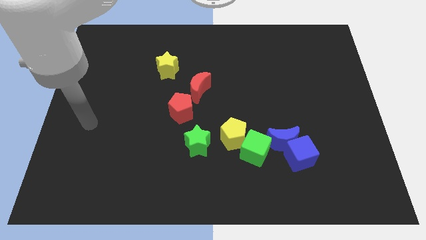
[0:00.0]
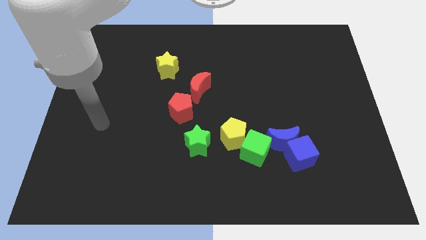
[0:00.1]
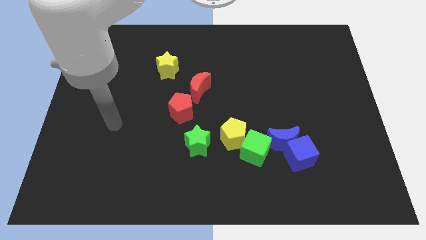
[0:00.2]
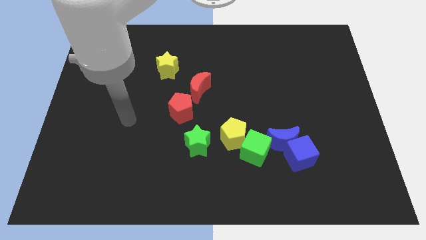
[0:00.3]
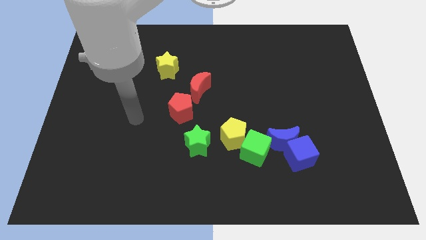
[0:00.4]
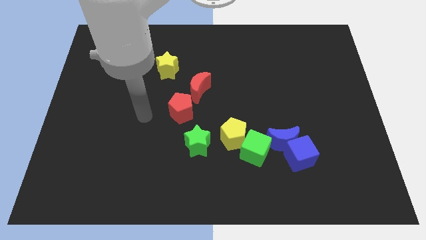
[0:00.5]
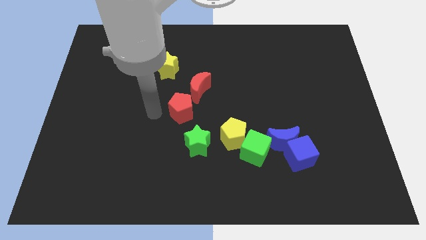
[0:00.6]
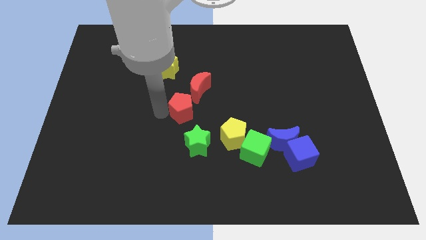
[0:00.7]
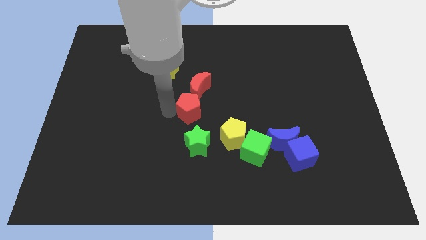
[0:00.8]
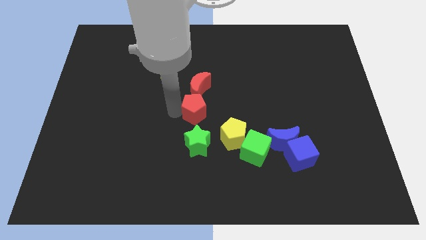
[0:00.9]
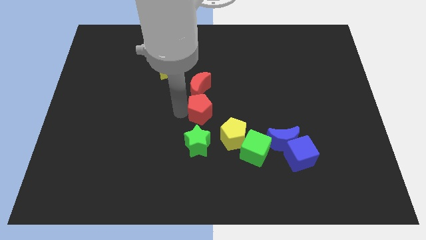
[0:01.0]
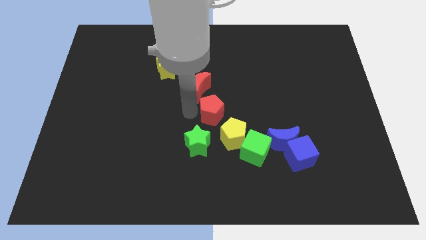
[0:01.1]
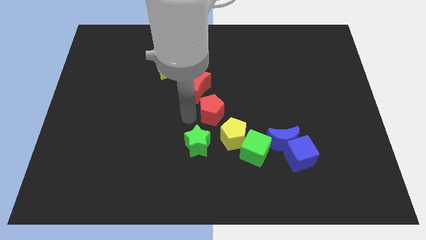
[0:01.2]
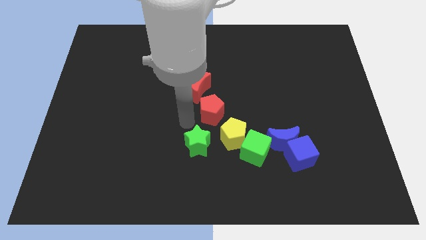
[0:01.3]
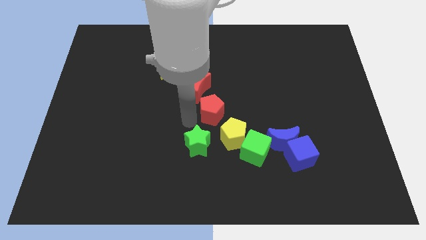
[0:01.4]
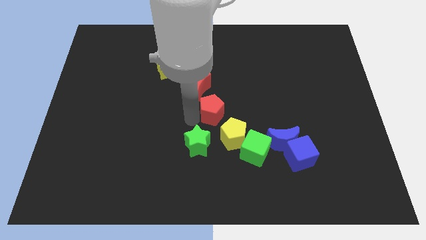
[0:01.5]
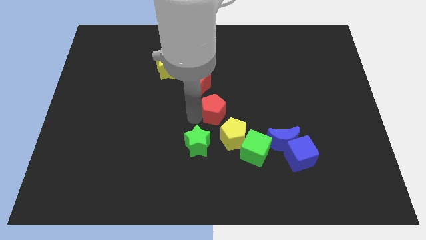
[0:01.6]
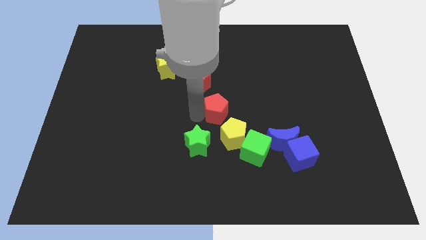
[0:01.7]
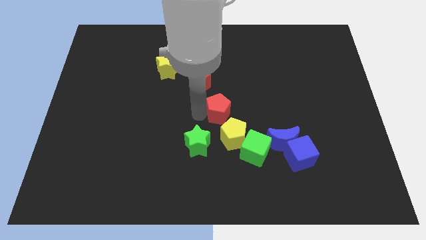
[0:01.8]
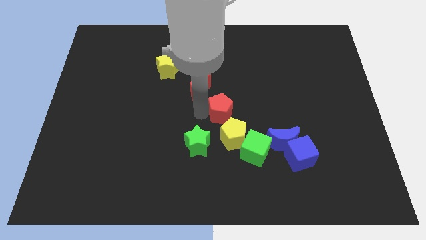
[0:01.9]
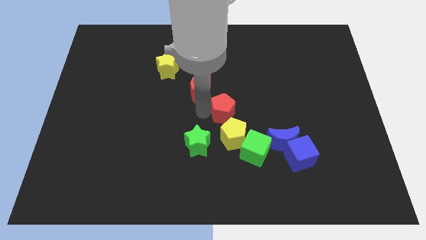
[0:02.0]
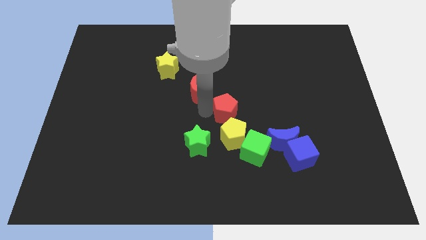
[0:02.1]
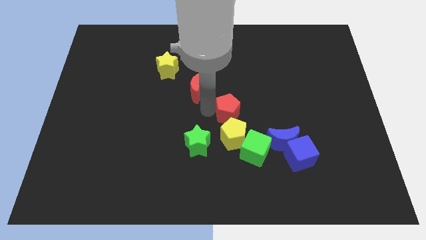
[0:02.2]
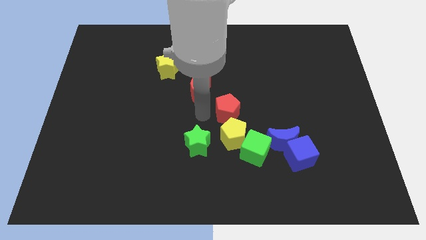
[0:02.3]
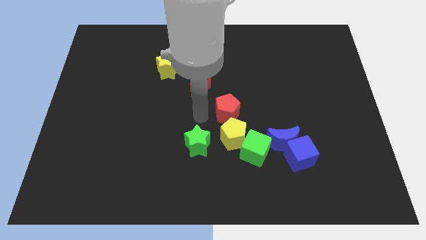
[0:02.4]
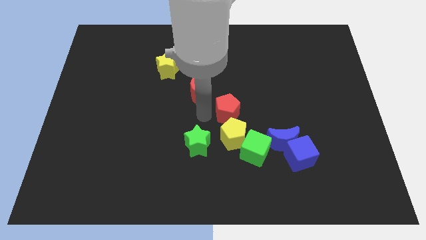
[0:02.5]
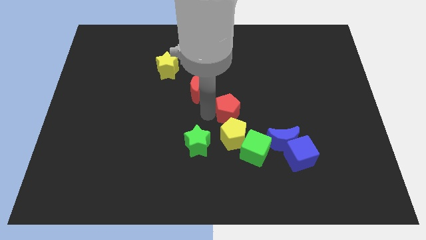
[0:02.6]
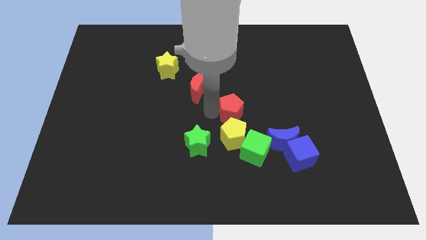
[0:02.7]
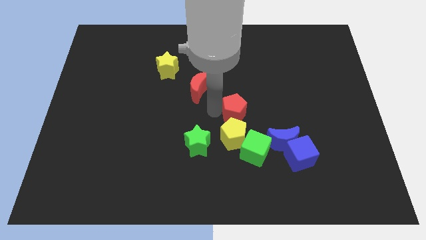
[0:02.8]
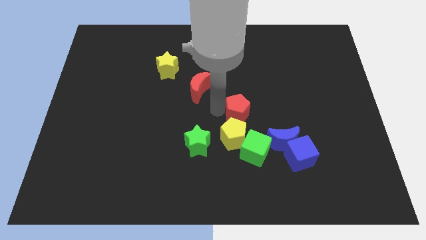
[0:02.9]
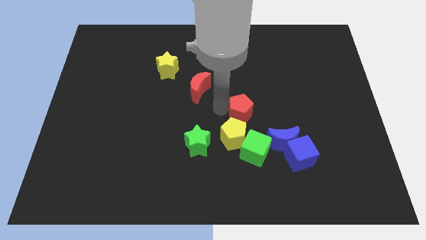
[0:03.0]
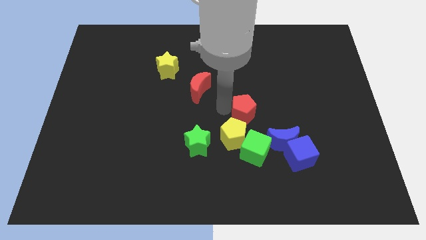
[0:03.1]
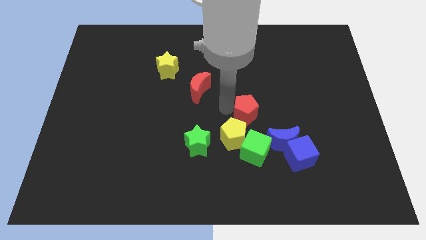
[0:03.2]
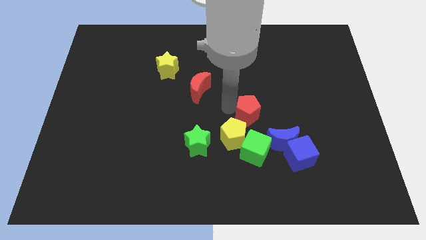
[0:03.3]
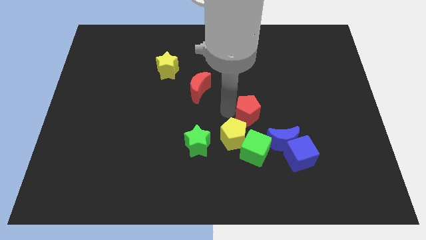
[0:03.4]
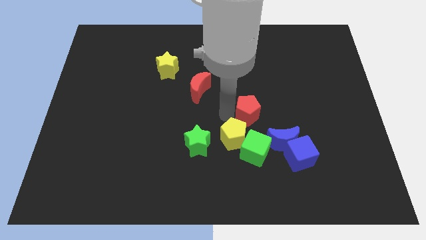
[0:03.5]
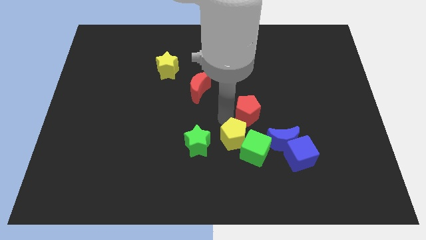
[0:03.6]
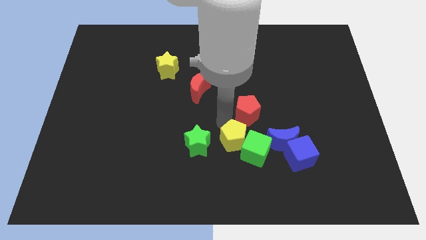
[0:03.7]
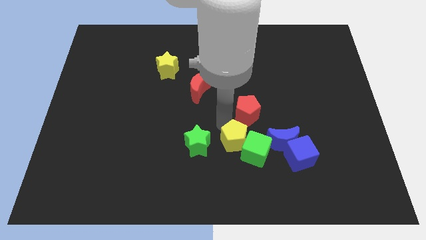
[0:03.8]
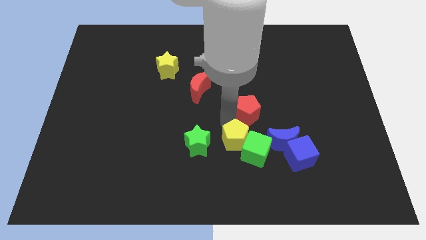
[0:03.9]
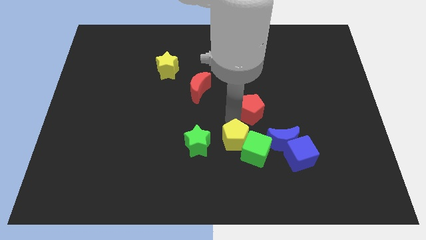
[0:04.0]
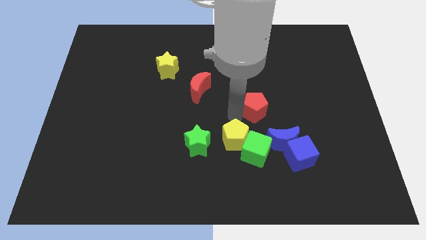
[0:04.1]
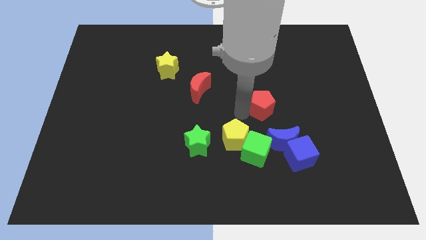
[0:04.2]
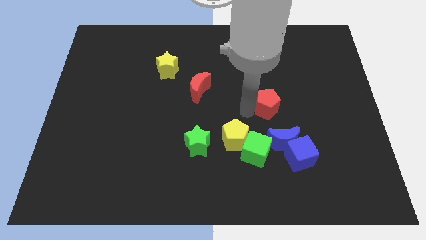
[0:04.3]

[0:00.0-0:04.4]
slide the red pentagon right

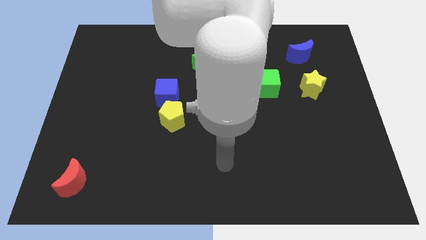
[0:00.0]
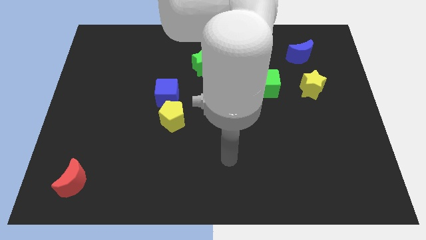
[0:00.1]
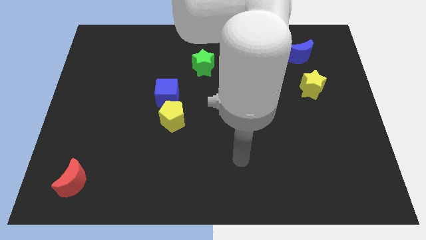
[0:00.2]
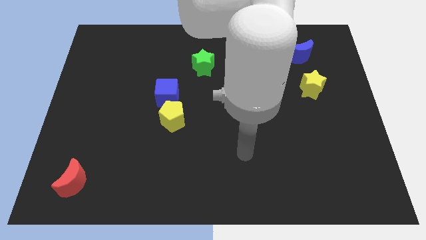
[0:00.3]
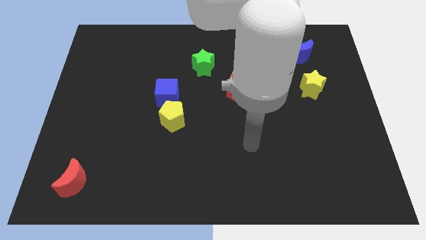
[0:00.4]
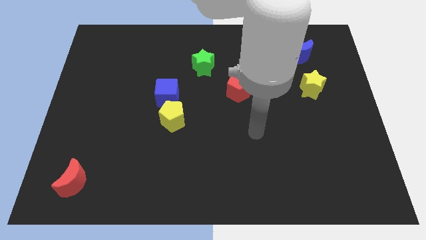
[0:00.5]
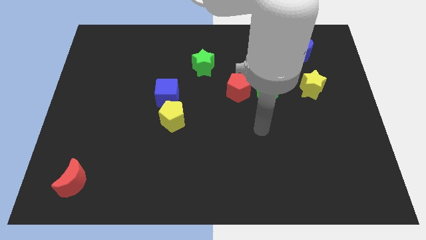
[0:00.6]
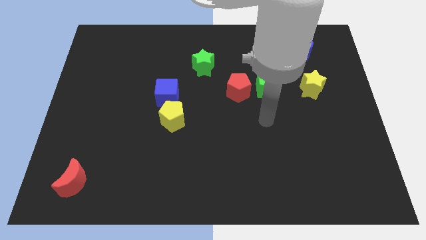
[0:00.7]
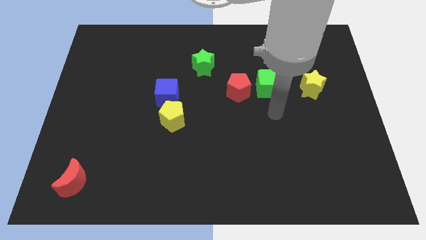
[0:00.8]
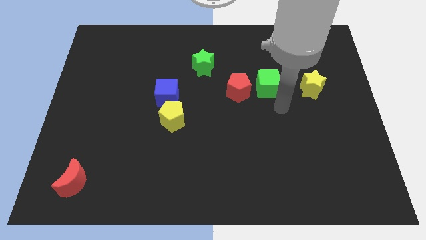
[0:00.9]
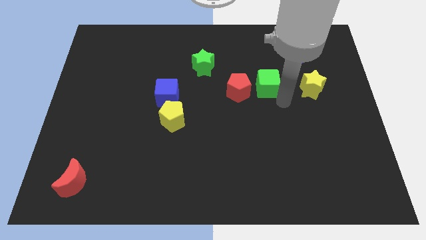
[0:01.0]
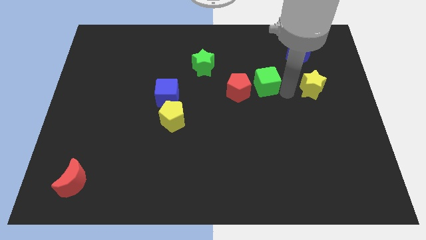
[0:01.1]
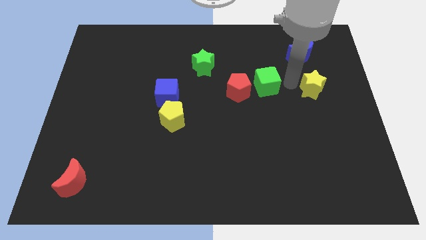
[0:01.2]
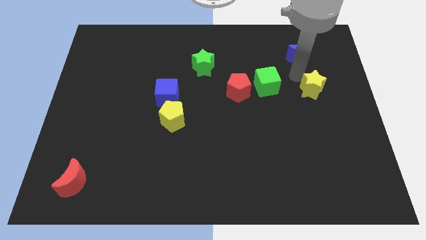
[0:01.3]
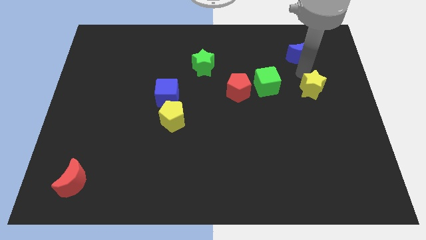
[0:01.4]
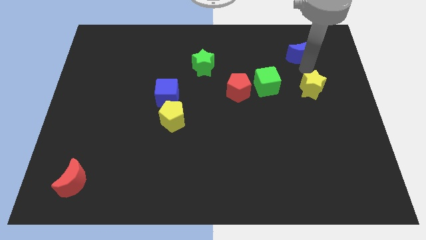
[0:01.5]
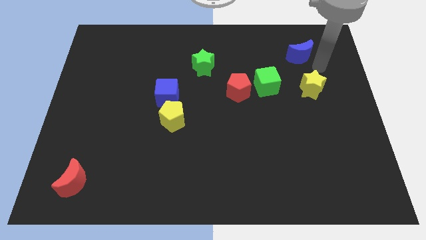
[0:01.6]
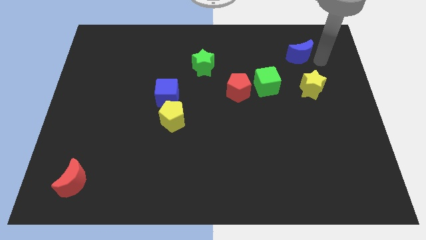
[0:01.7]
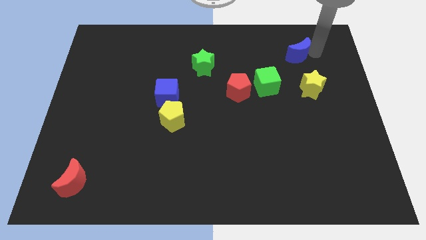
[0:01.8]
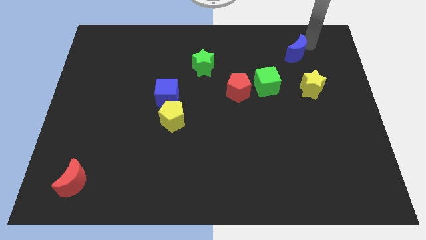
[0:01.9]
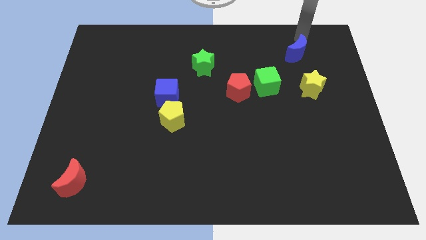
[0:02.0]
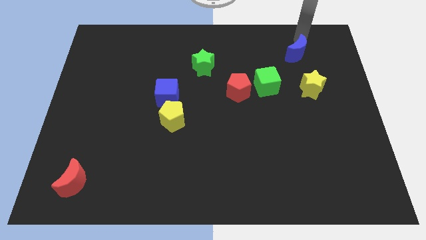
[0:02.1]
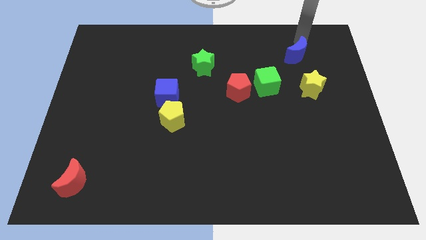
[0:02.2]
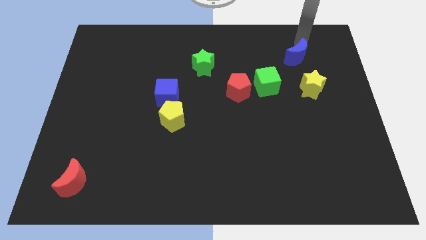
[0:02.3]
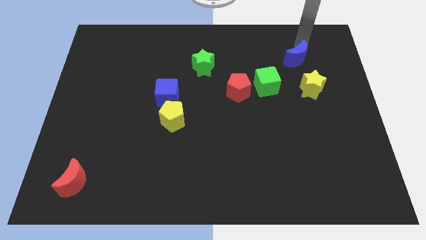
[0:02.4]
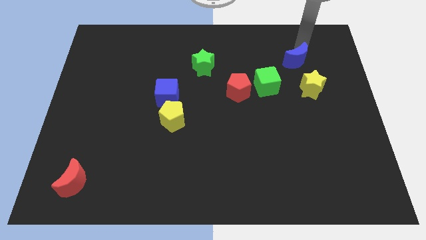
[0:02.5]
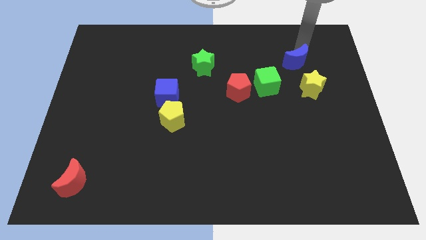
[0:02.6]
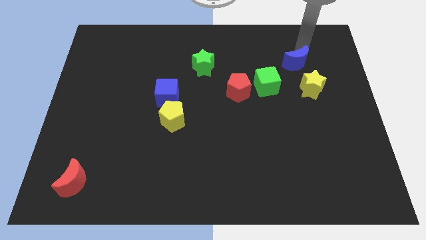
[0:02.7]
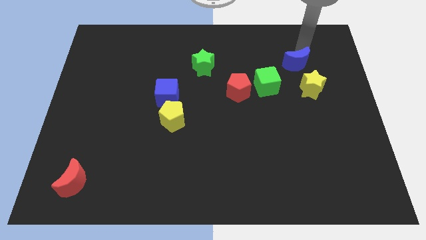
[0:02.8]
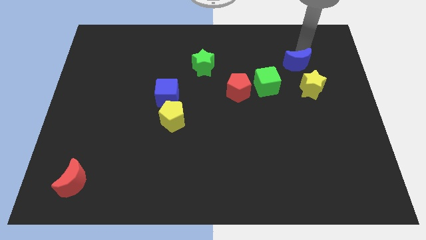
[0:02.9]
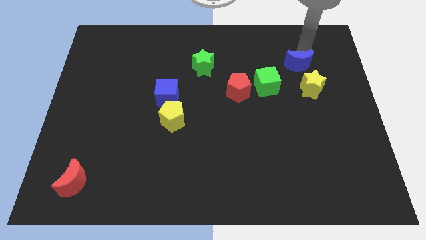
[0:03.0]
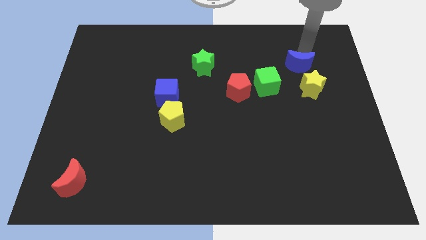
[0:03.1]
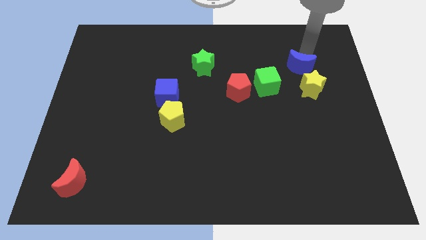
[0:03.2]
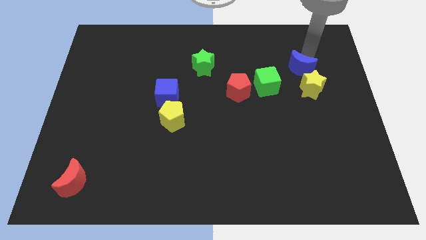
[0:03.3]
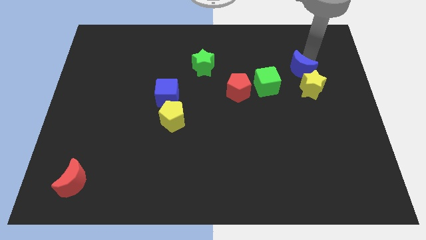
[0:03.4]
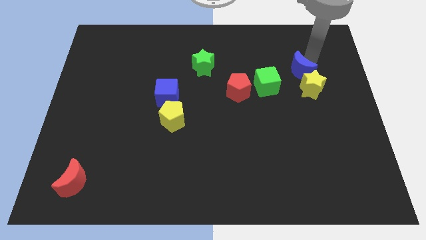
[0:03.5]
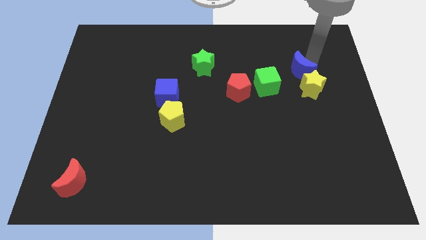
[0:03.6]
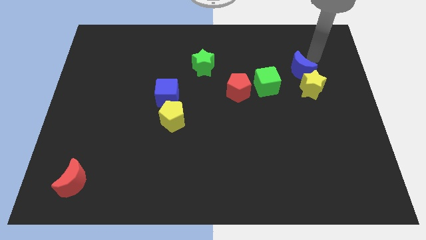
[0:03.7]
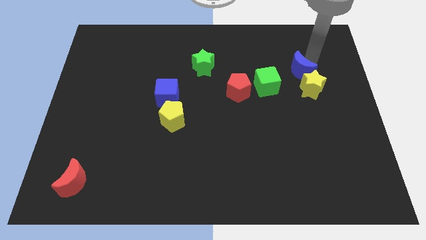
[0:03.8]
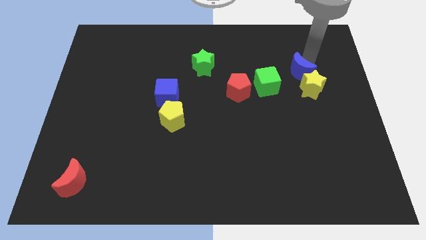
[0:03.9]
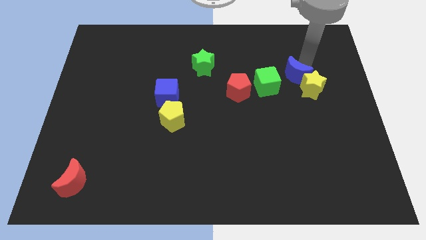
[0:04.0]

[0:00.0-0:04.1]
slide the blue moon slightly down
